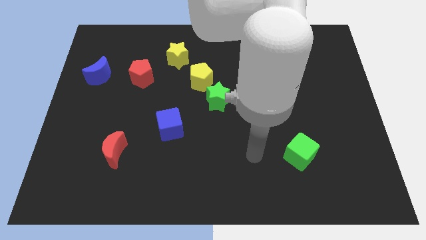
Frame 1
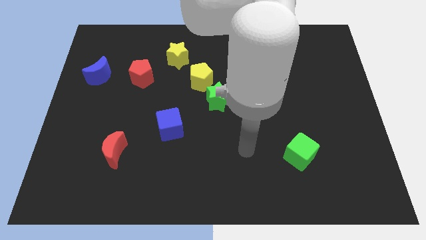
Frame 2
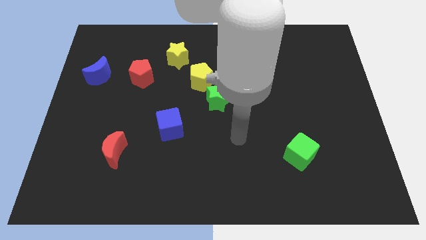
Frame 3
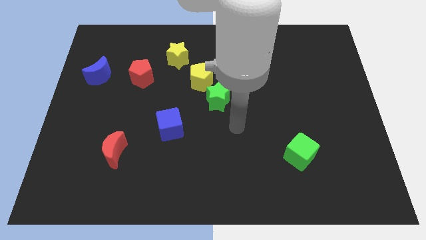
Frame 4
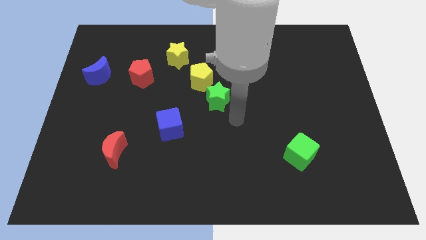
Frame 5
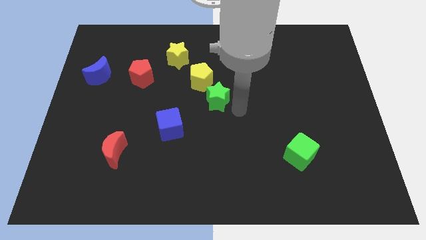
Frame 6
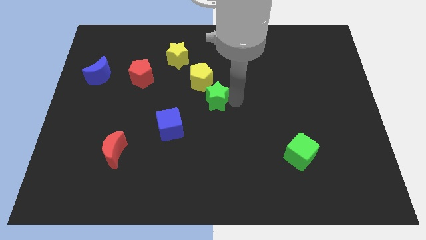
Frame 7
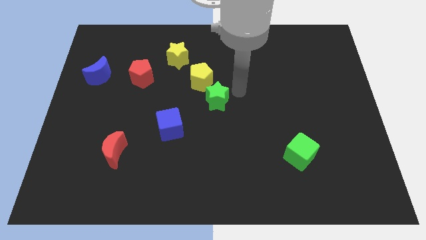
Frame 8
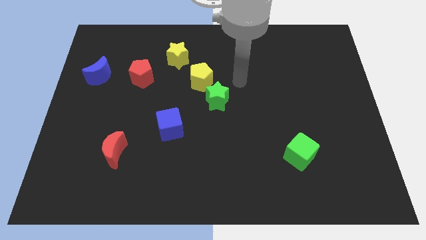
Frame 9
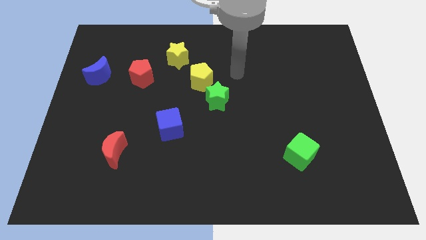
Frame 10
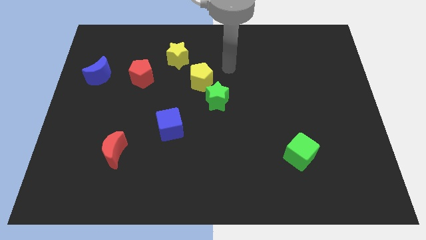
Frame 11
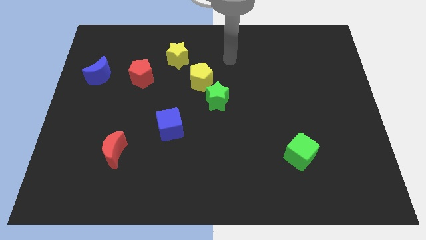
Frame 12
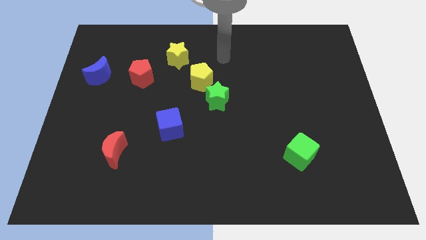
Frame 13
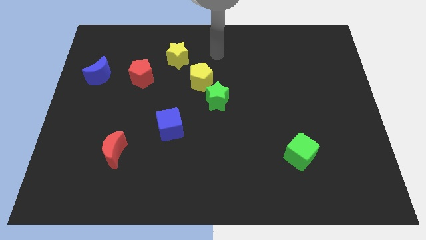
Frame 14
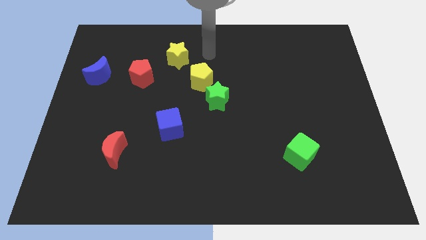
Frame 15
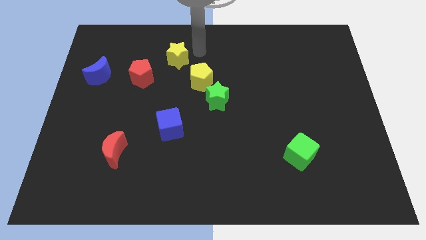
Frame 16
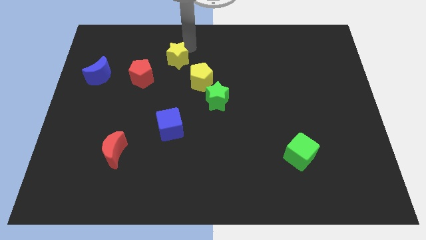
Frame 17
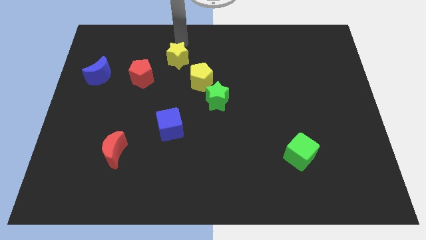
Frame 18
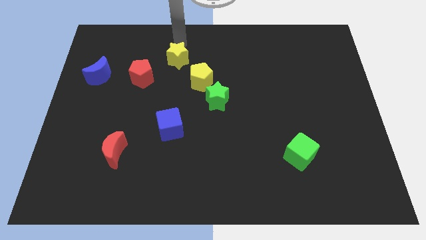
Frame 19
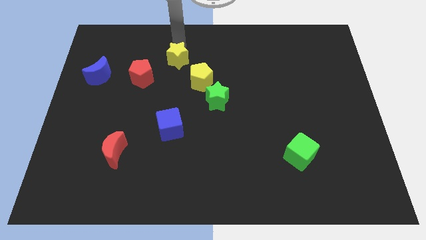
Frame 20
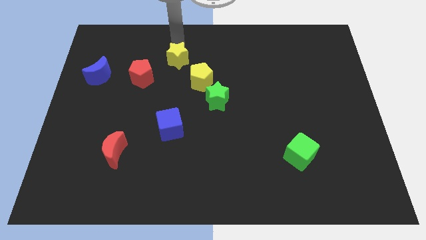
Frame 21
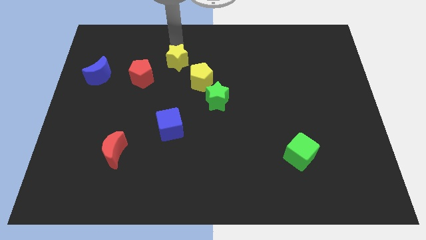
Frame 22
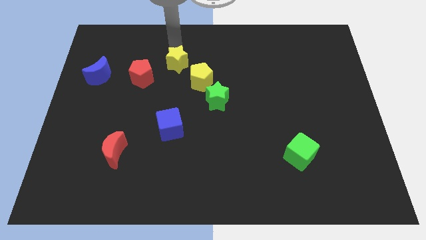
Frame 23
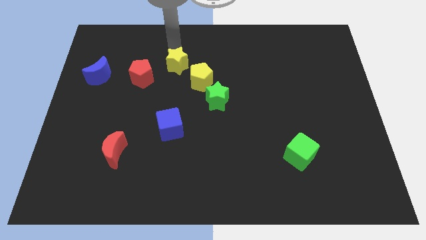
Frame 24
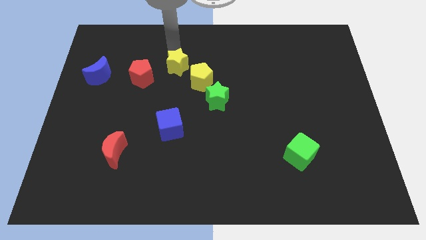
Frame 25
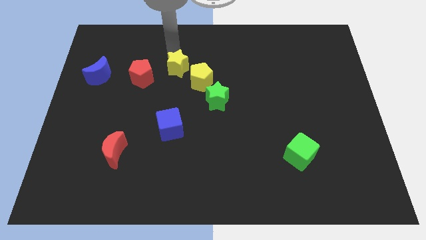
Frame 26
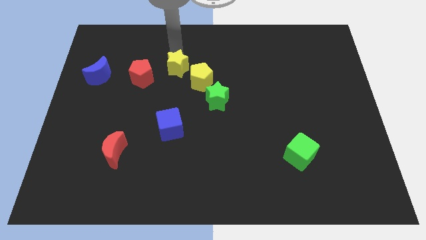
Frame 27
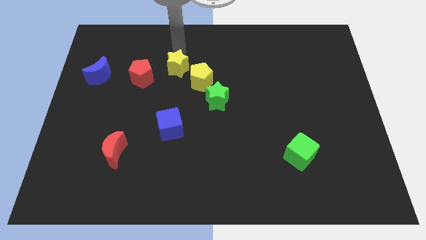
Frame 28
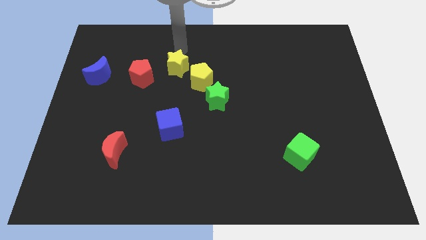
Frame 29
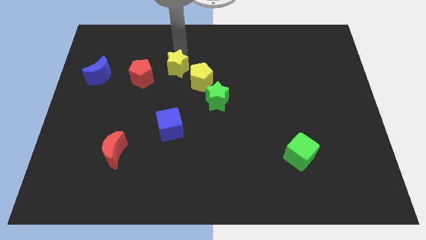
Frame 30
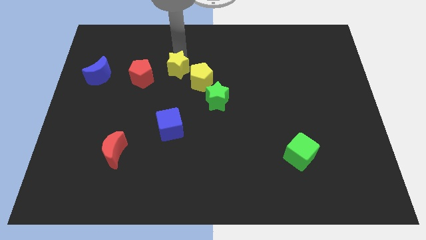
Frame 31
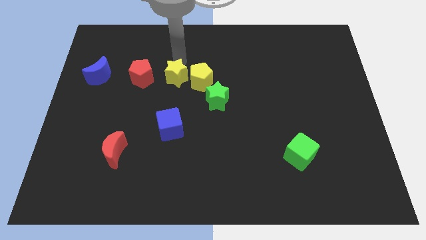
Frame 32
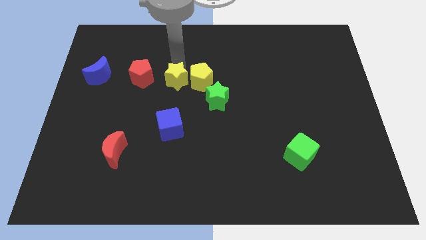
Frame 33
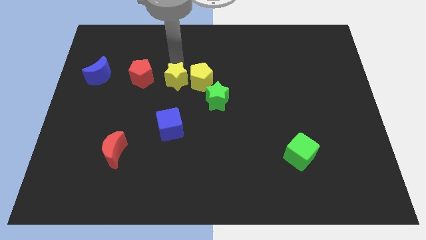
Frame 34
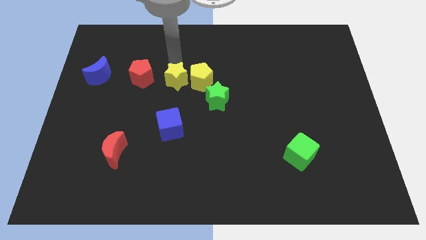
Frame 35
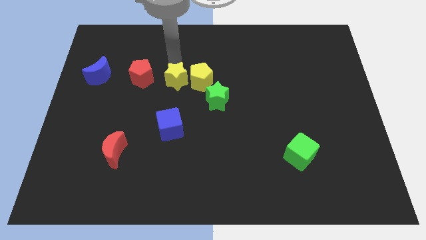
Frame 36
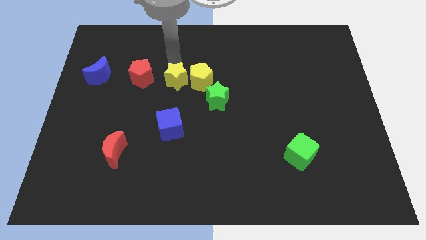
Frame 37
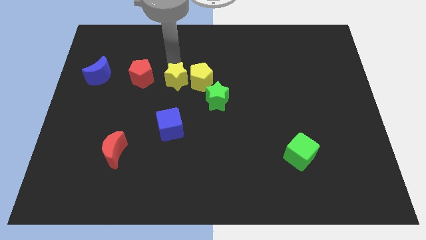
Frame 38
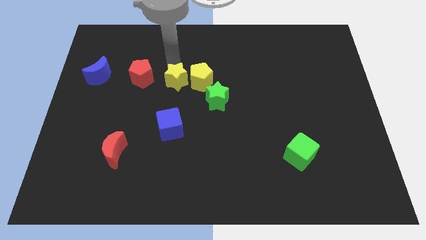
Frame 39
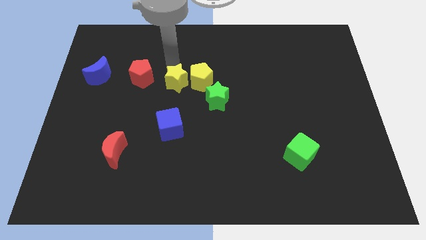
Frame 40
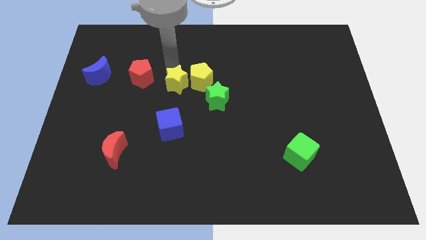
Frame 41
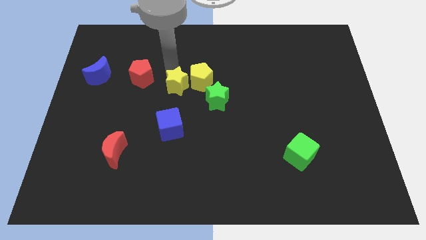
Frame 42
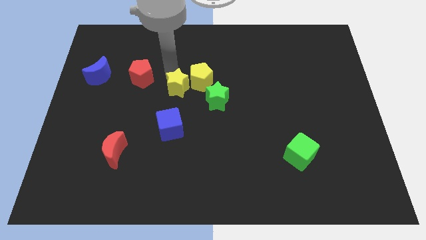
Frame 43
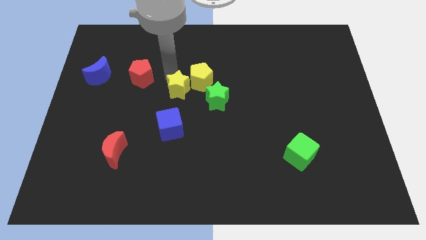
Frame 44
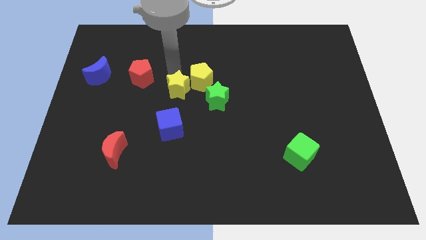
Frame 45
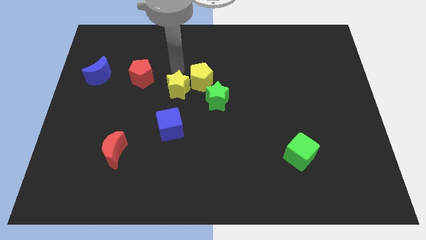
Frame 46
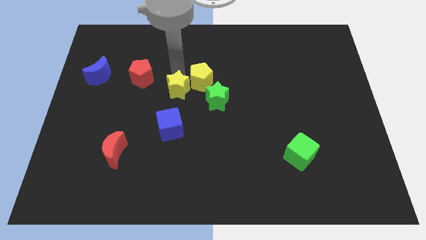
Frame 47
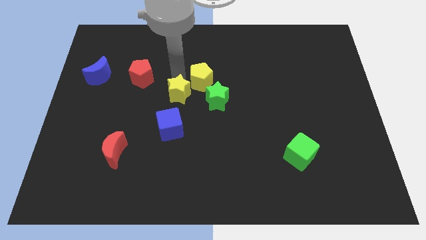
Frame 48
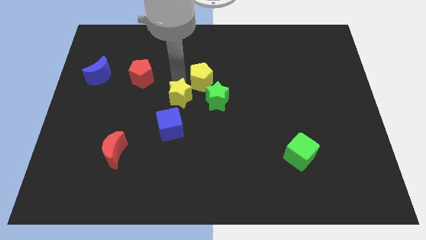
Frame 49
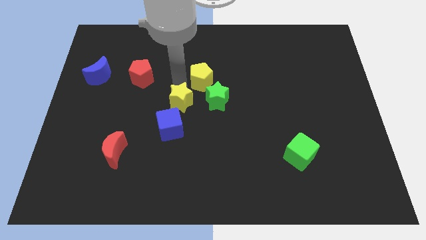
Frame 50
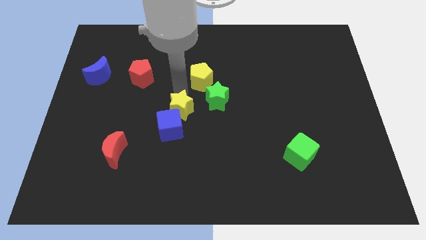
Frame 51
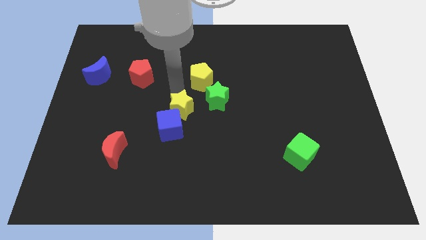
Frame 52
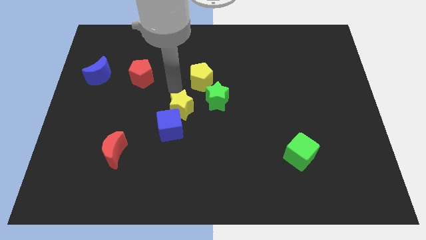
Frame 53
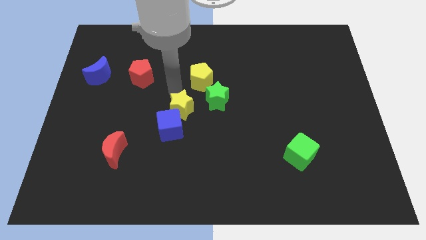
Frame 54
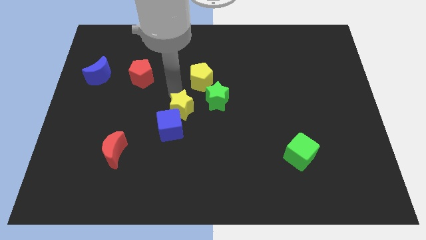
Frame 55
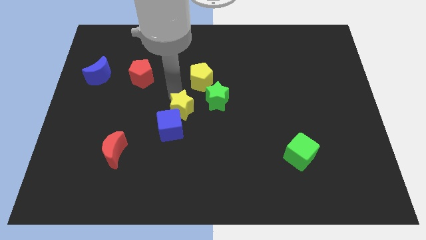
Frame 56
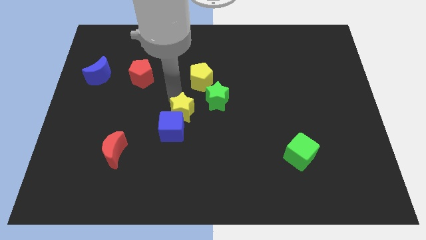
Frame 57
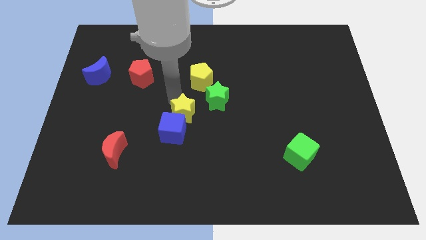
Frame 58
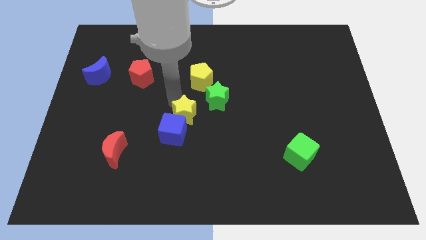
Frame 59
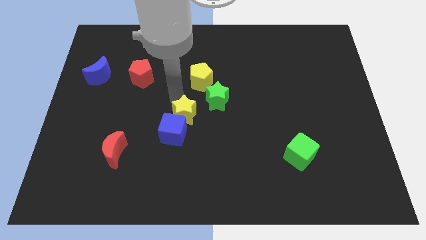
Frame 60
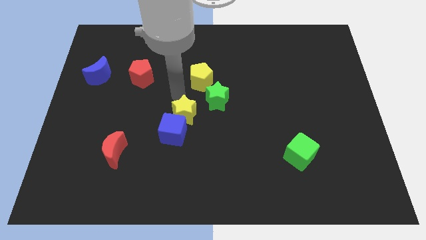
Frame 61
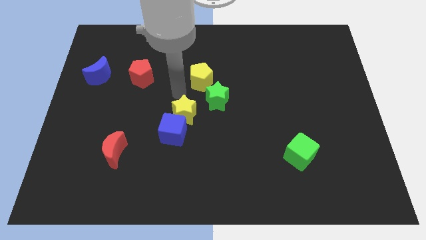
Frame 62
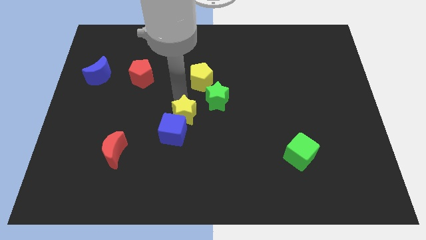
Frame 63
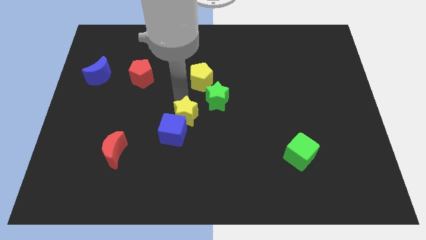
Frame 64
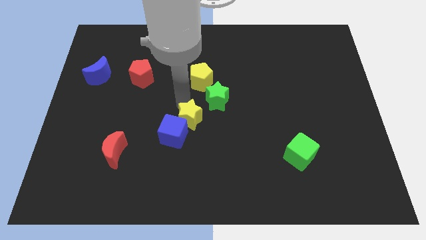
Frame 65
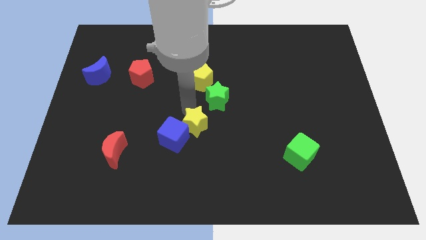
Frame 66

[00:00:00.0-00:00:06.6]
slide the yellow star down

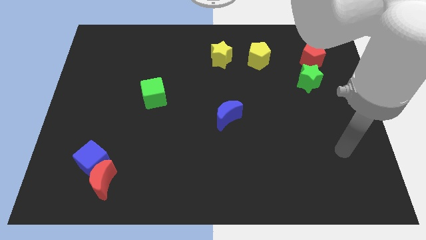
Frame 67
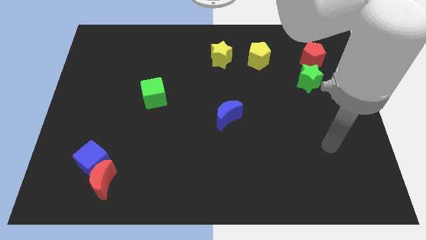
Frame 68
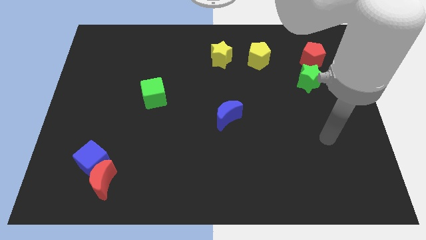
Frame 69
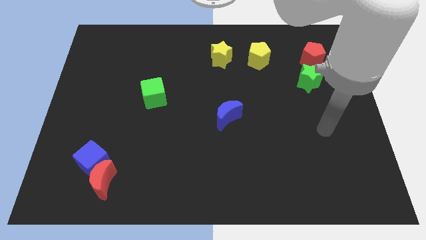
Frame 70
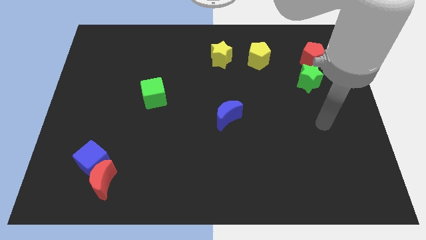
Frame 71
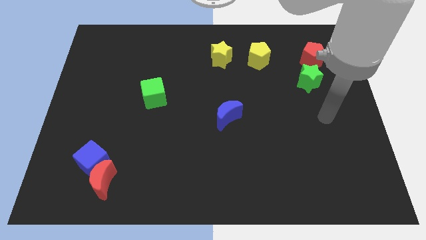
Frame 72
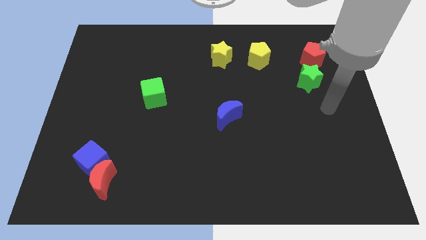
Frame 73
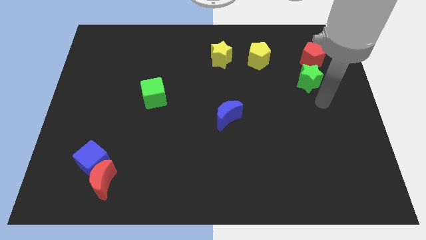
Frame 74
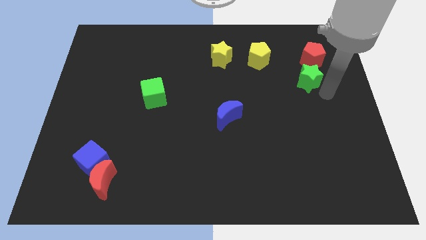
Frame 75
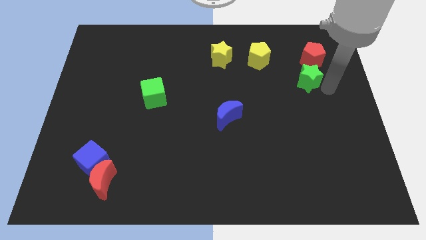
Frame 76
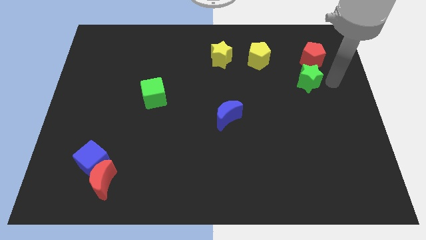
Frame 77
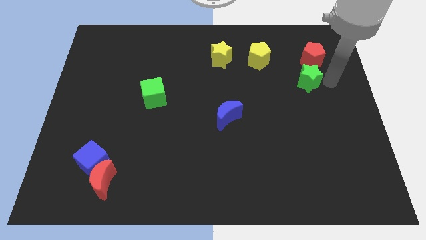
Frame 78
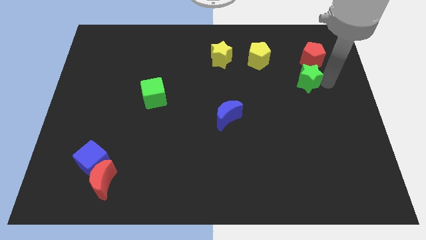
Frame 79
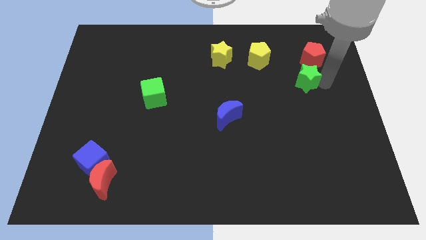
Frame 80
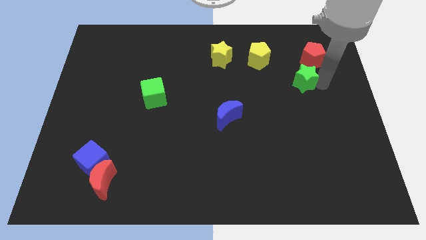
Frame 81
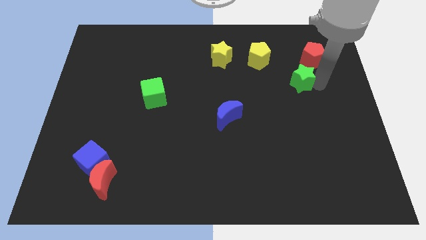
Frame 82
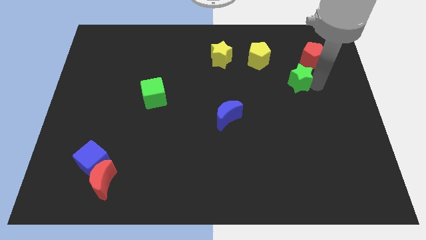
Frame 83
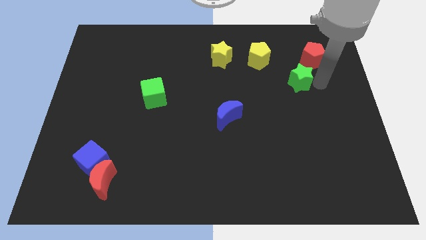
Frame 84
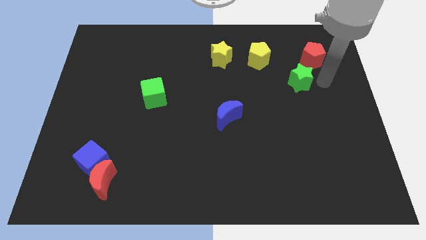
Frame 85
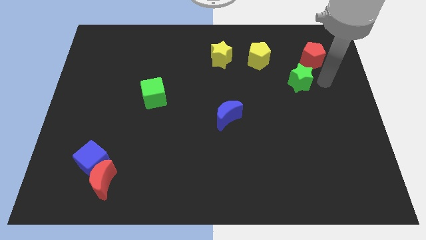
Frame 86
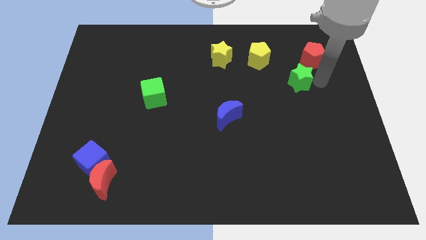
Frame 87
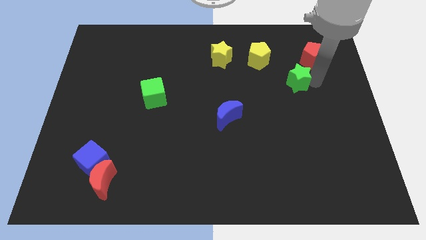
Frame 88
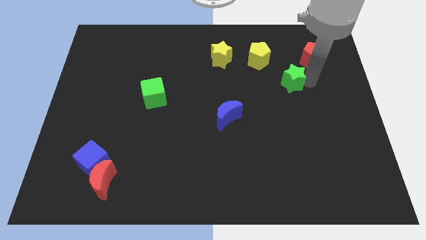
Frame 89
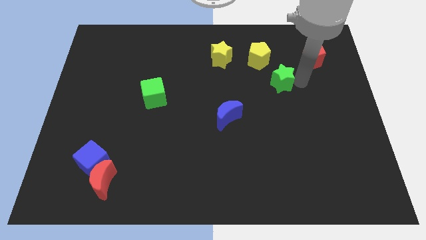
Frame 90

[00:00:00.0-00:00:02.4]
push the green star somewhat to the left
